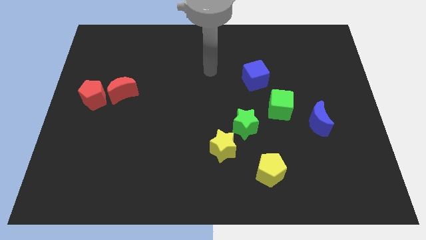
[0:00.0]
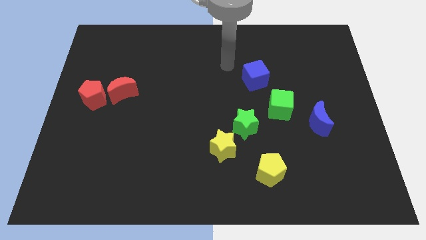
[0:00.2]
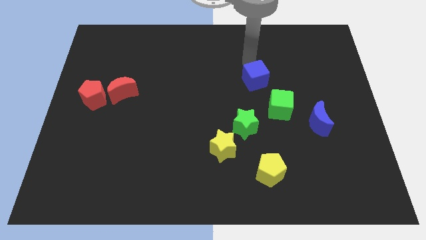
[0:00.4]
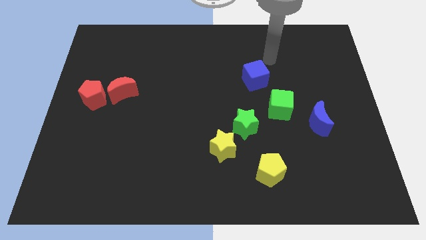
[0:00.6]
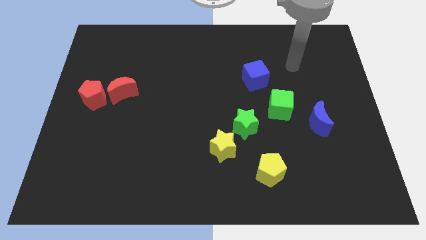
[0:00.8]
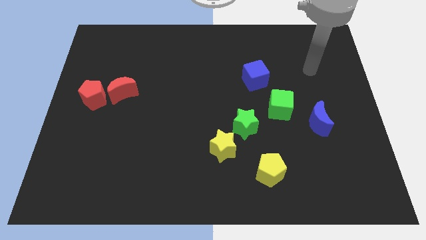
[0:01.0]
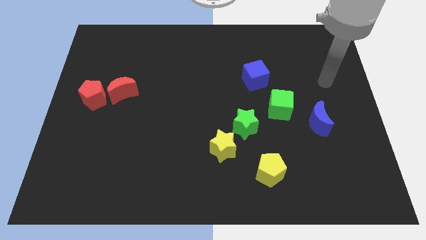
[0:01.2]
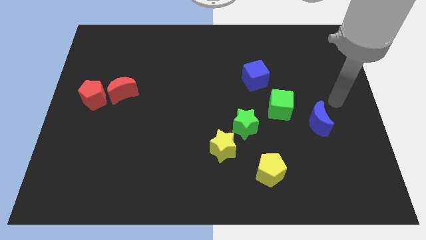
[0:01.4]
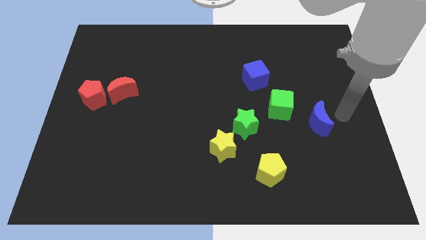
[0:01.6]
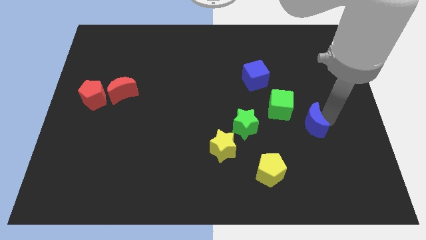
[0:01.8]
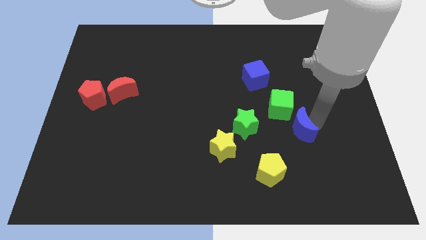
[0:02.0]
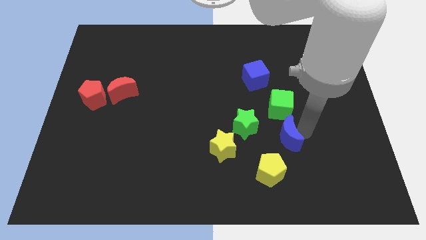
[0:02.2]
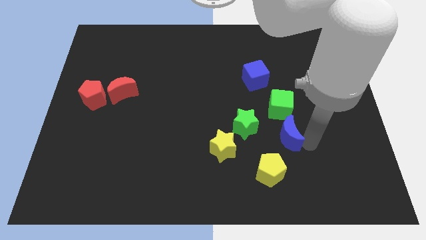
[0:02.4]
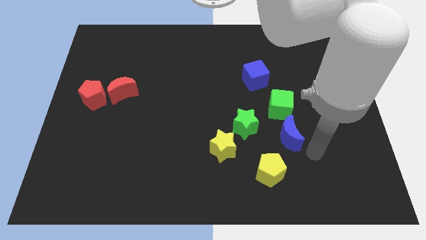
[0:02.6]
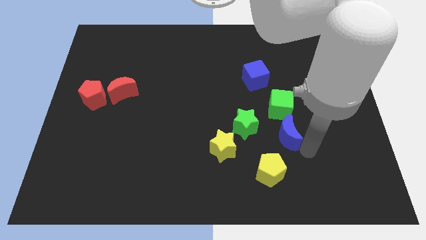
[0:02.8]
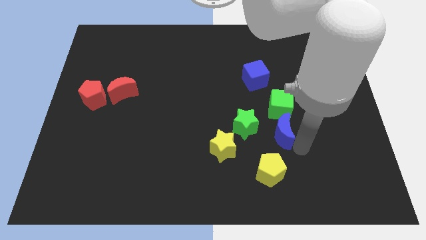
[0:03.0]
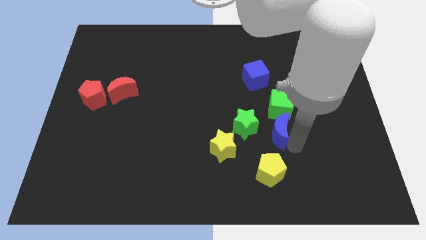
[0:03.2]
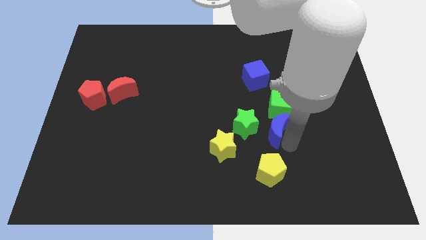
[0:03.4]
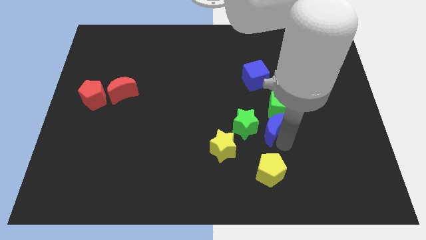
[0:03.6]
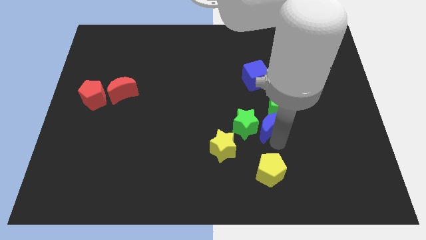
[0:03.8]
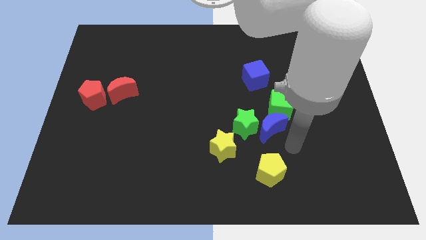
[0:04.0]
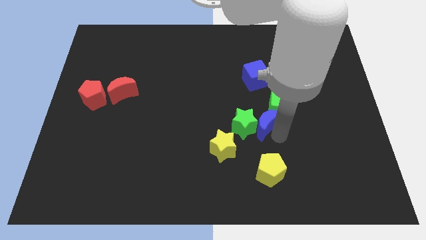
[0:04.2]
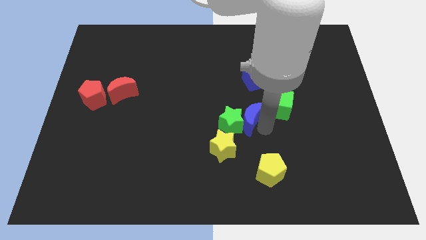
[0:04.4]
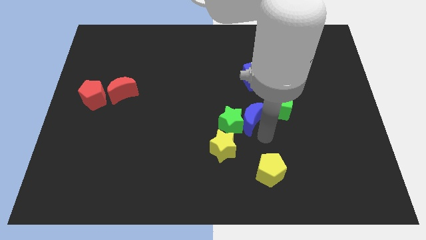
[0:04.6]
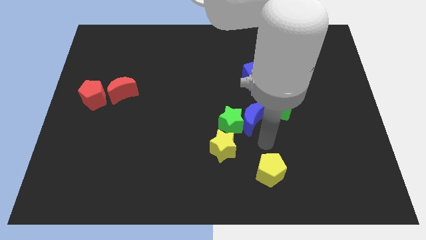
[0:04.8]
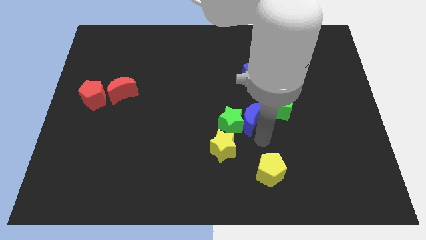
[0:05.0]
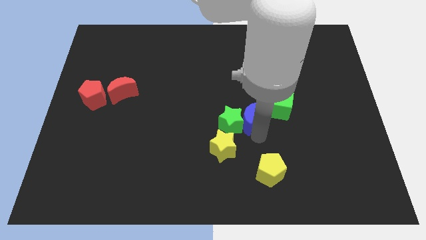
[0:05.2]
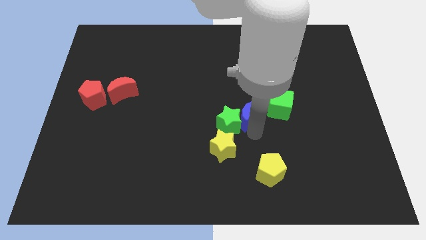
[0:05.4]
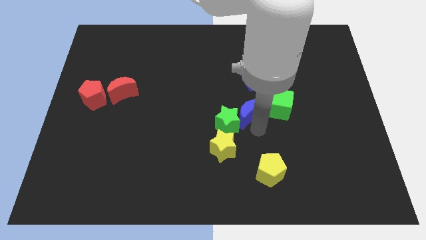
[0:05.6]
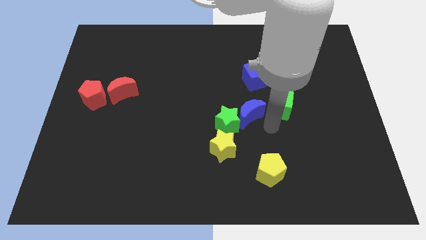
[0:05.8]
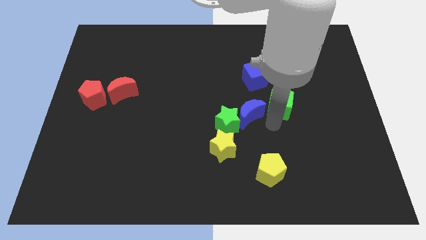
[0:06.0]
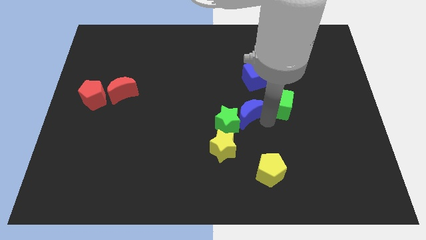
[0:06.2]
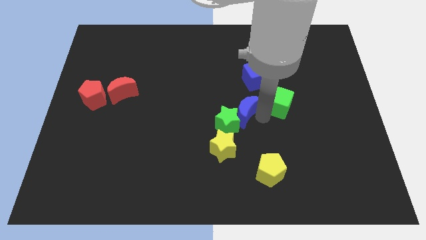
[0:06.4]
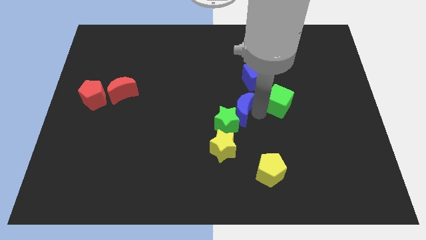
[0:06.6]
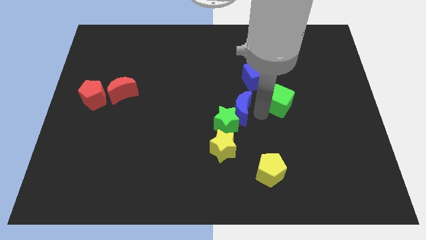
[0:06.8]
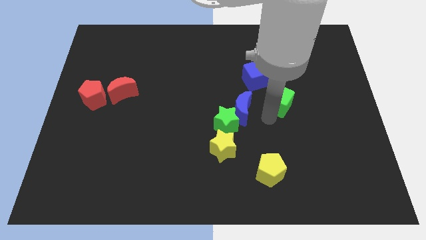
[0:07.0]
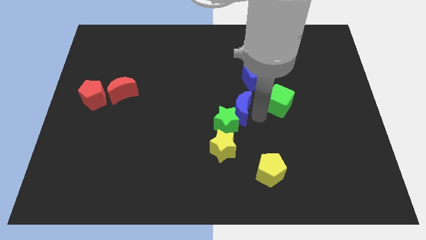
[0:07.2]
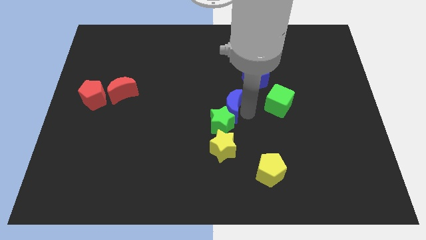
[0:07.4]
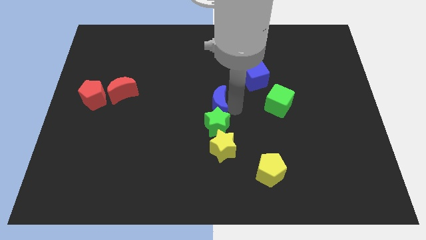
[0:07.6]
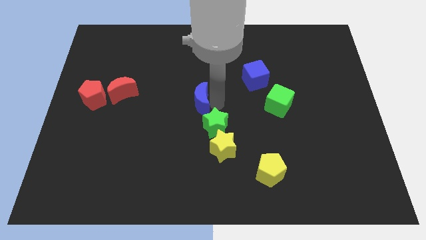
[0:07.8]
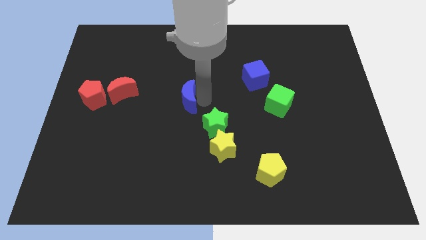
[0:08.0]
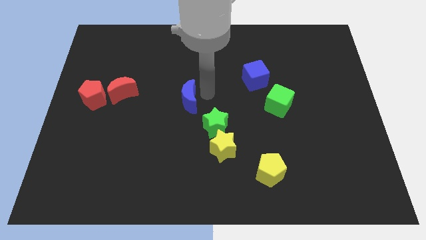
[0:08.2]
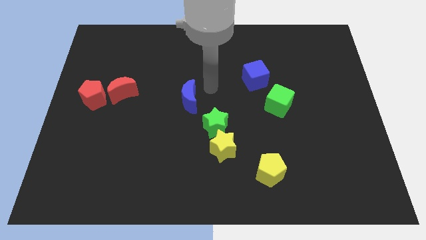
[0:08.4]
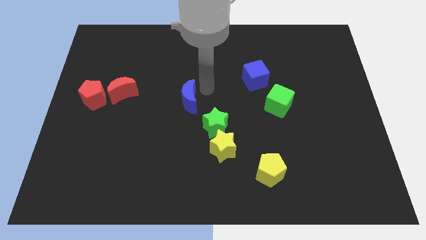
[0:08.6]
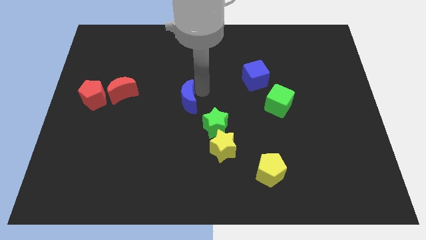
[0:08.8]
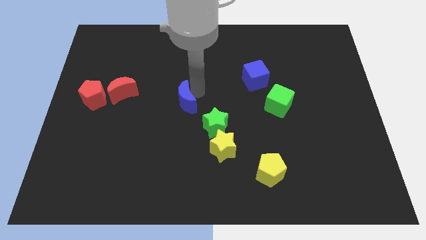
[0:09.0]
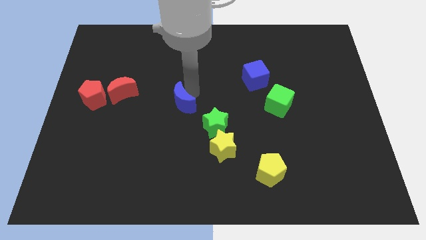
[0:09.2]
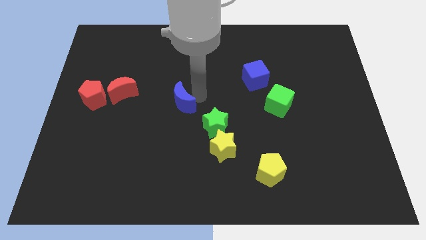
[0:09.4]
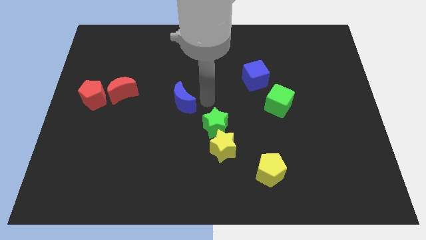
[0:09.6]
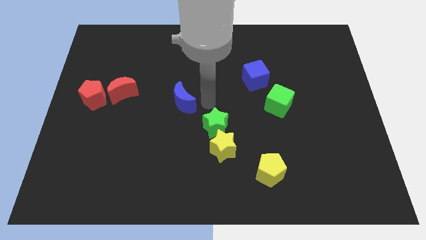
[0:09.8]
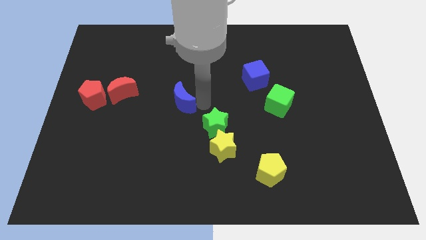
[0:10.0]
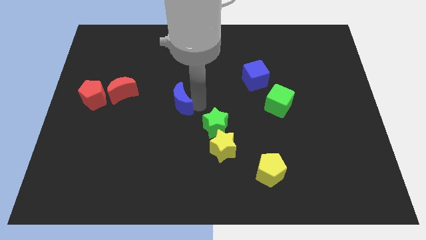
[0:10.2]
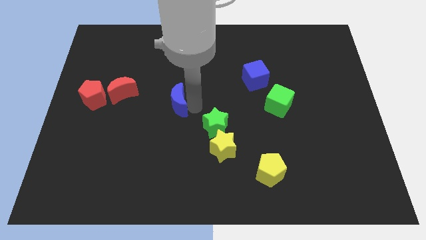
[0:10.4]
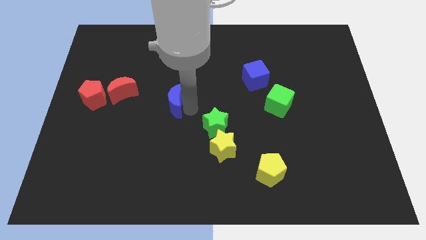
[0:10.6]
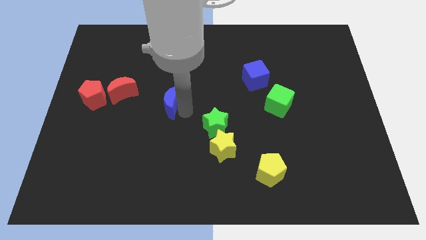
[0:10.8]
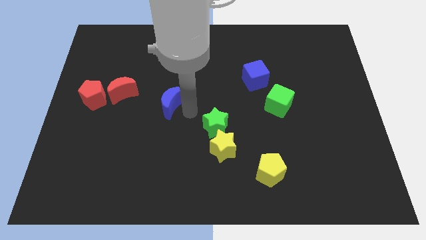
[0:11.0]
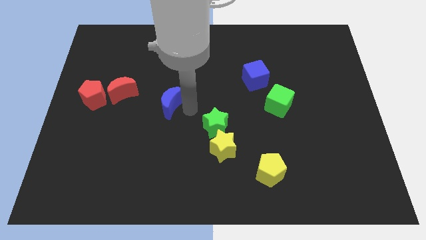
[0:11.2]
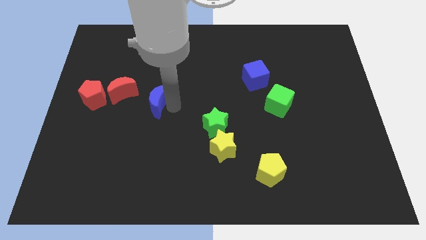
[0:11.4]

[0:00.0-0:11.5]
put the blue moon to the right side of the red pentagon

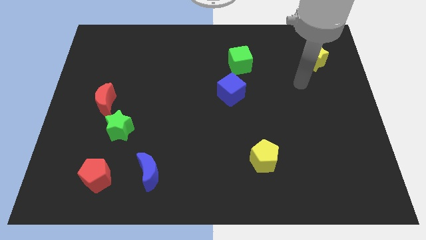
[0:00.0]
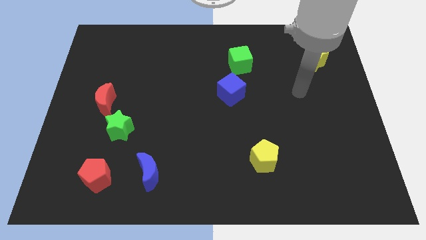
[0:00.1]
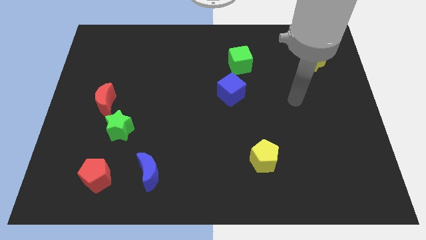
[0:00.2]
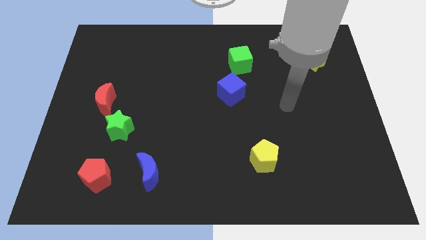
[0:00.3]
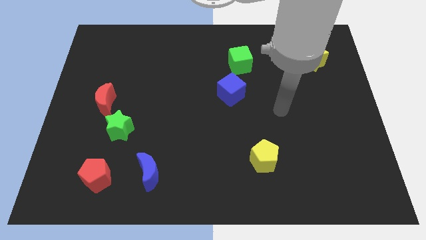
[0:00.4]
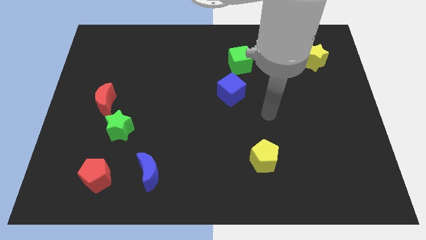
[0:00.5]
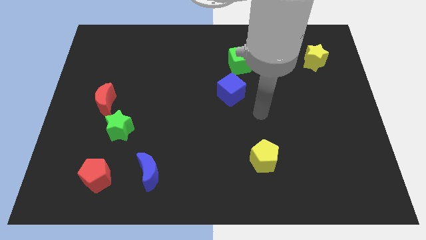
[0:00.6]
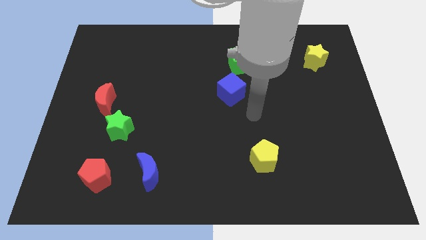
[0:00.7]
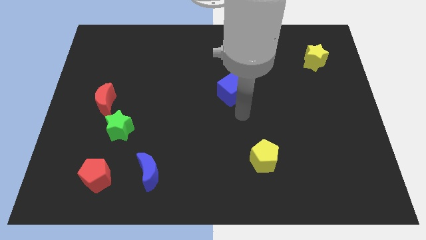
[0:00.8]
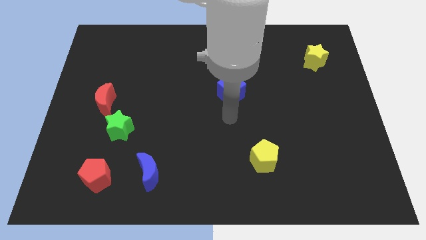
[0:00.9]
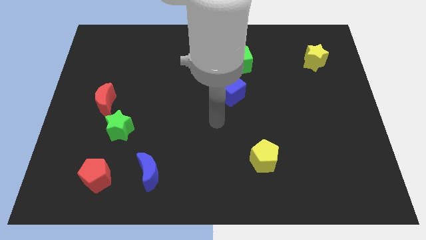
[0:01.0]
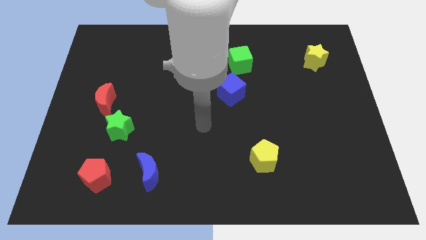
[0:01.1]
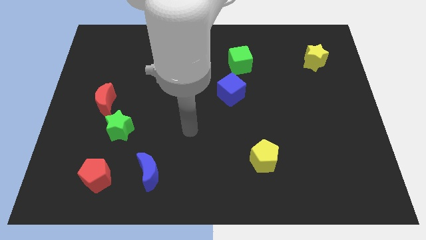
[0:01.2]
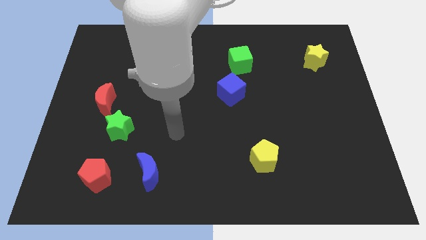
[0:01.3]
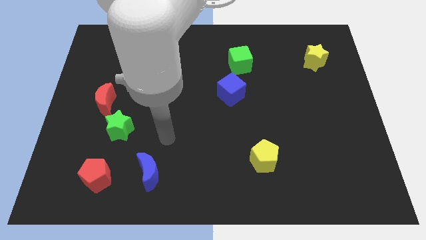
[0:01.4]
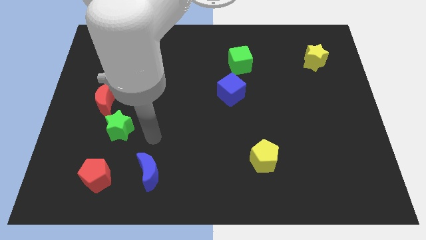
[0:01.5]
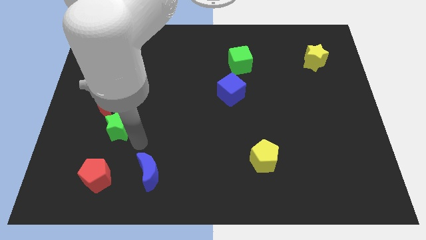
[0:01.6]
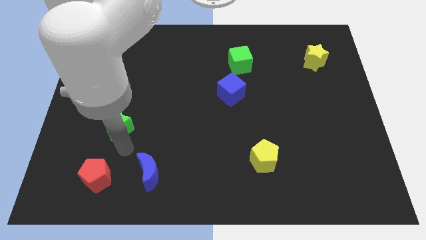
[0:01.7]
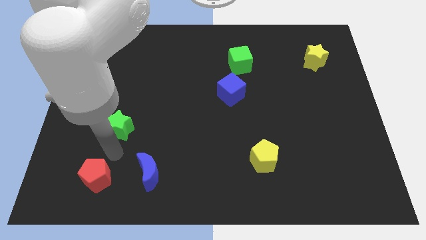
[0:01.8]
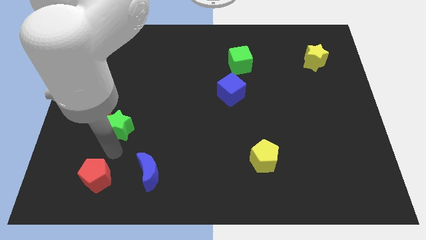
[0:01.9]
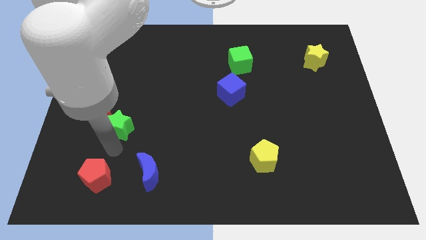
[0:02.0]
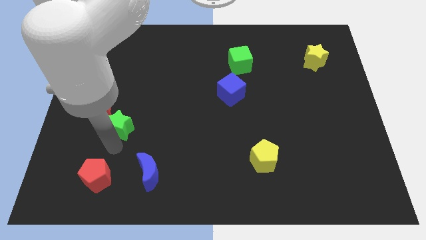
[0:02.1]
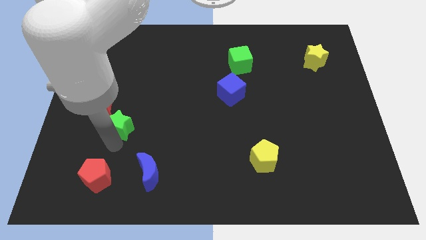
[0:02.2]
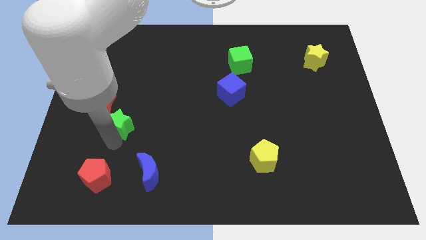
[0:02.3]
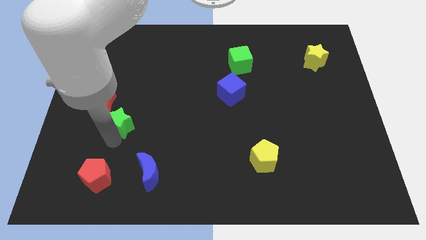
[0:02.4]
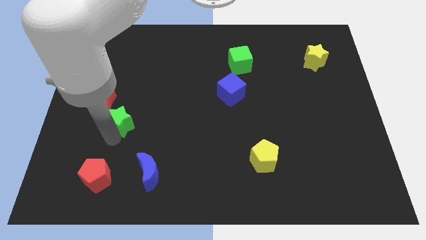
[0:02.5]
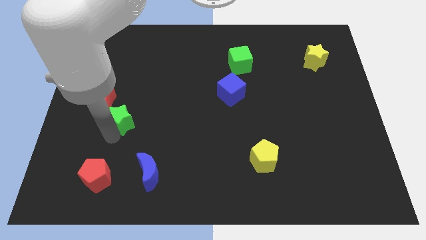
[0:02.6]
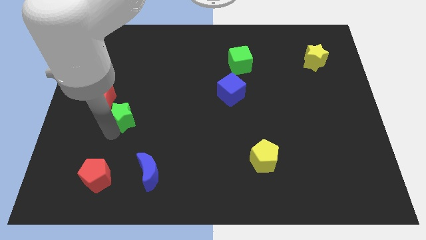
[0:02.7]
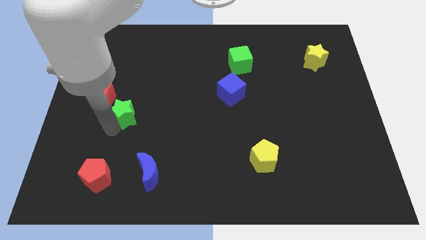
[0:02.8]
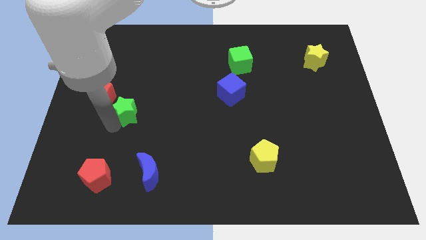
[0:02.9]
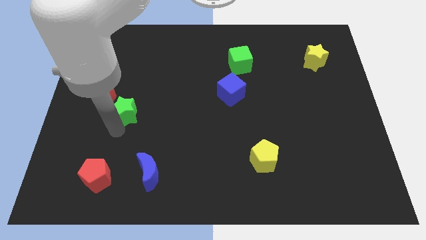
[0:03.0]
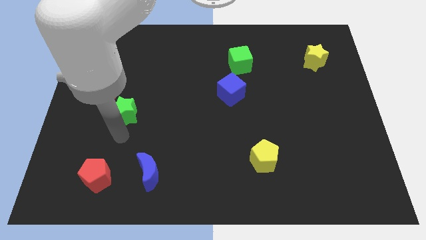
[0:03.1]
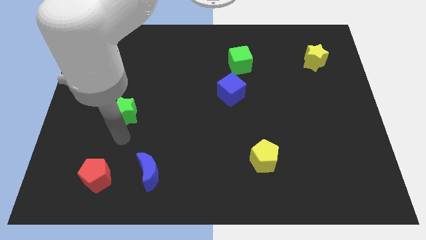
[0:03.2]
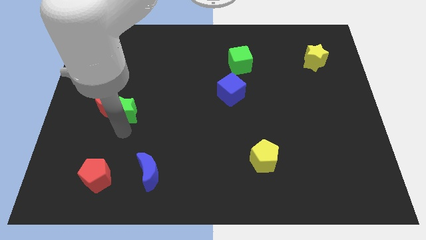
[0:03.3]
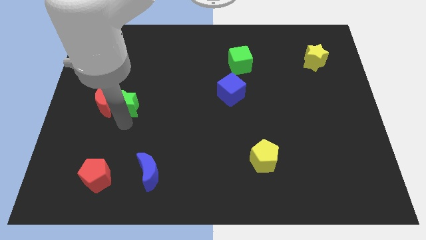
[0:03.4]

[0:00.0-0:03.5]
slide the green star diagonally up and to the right of the red moon
